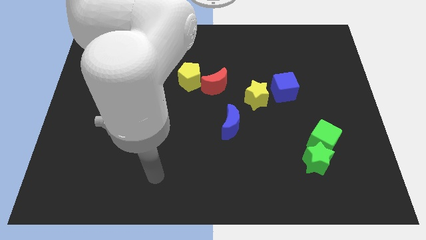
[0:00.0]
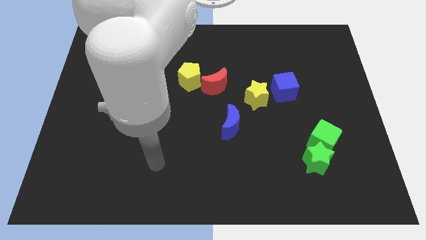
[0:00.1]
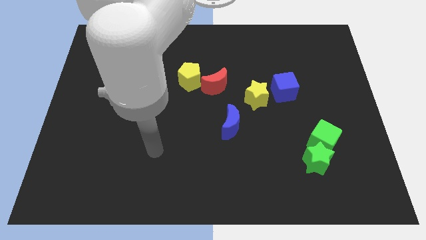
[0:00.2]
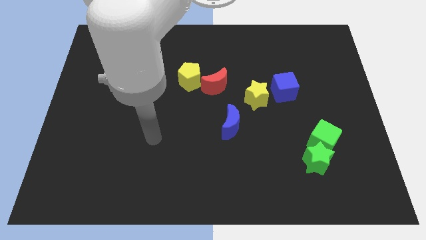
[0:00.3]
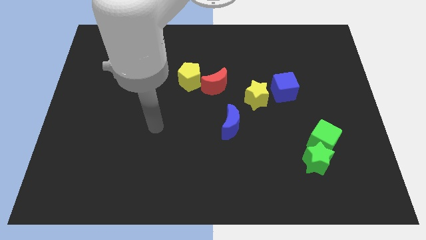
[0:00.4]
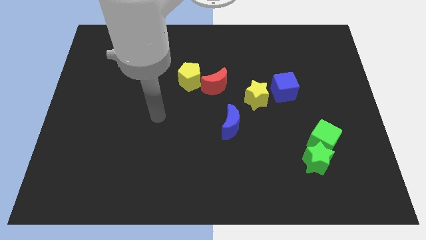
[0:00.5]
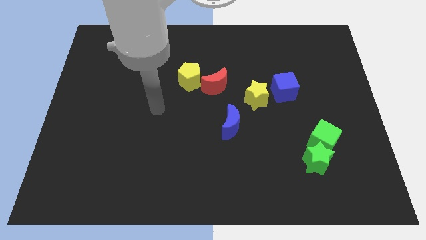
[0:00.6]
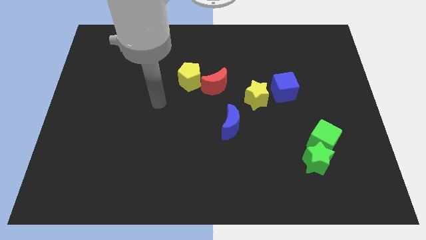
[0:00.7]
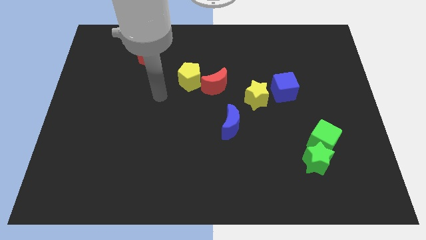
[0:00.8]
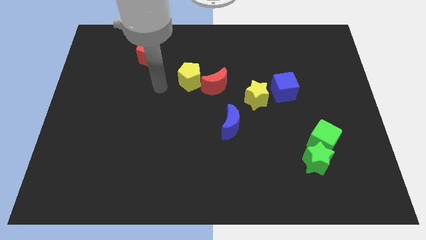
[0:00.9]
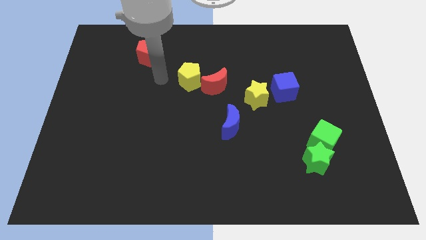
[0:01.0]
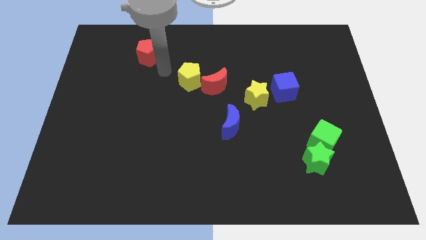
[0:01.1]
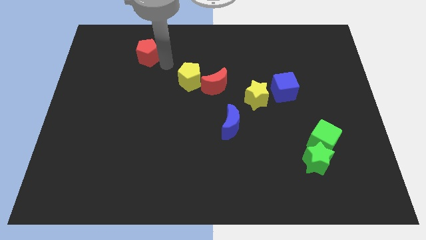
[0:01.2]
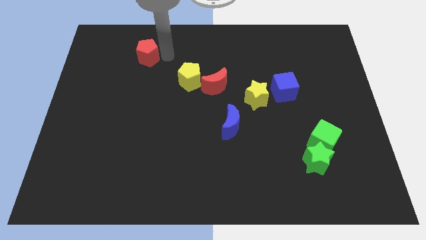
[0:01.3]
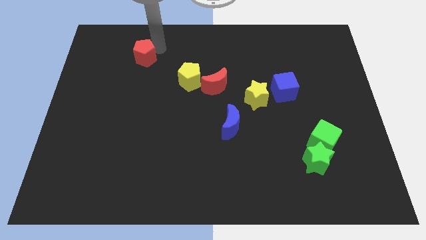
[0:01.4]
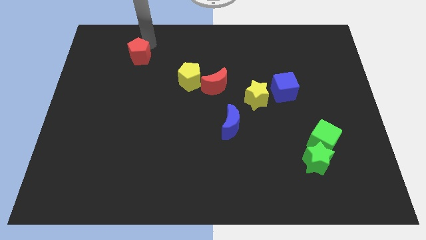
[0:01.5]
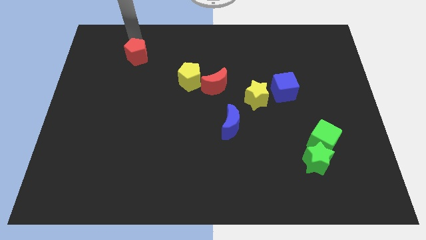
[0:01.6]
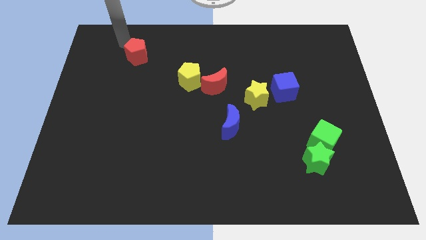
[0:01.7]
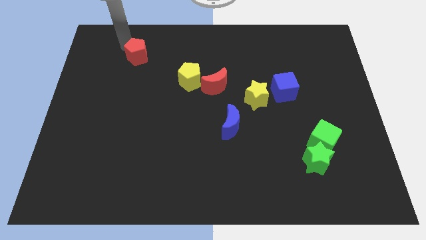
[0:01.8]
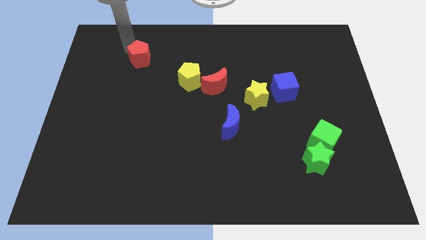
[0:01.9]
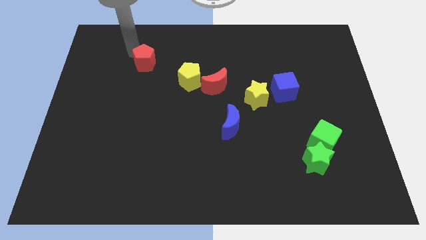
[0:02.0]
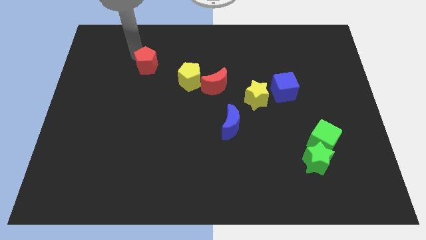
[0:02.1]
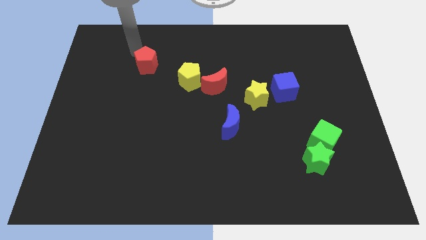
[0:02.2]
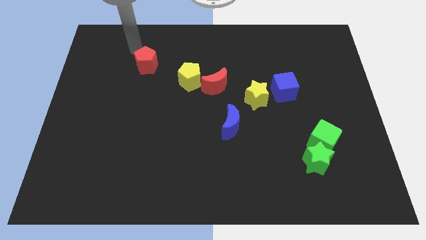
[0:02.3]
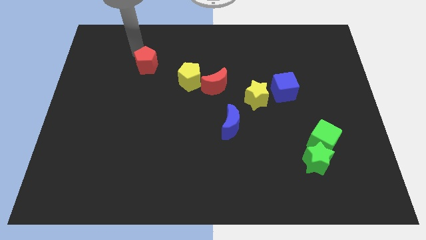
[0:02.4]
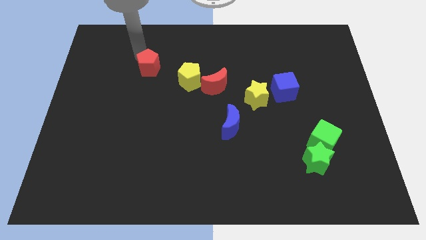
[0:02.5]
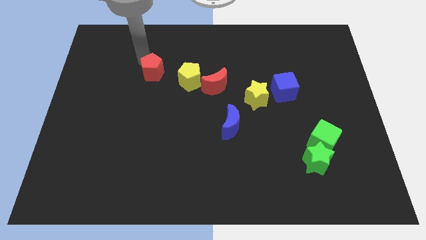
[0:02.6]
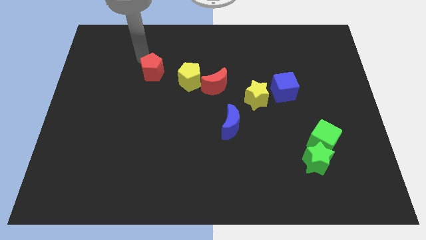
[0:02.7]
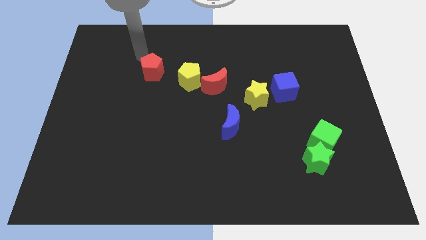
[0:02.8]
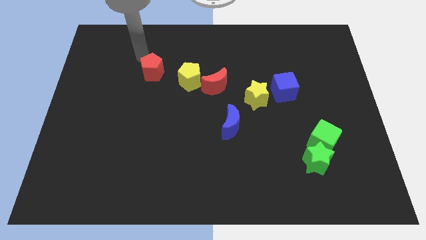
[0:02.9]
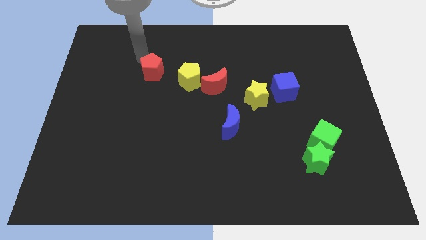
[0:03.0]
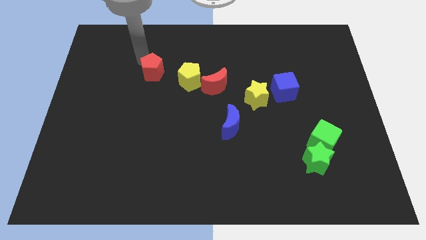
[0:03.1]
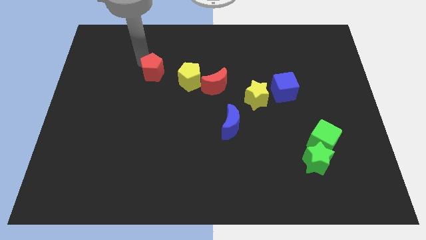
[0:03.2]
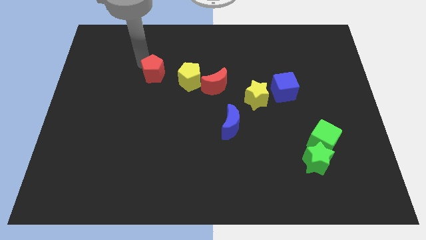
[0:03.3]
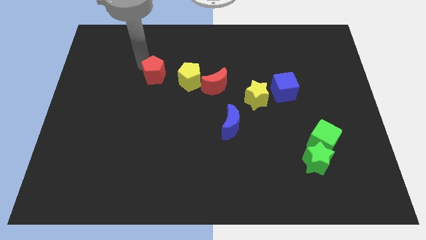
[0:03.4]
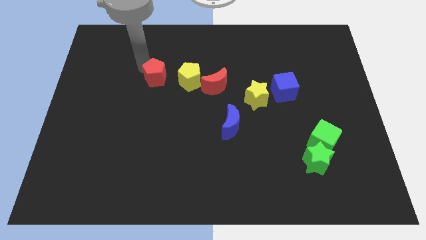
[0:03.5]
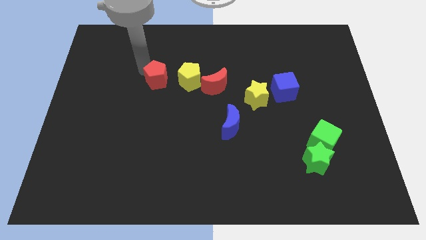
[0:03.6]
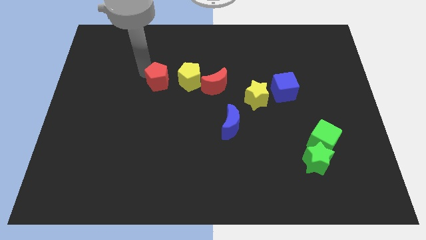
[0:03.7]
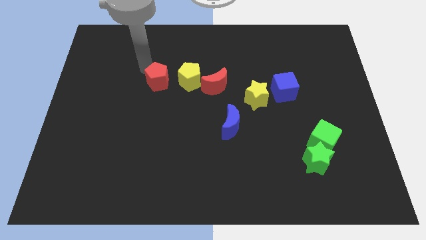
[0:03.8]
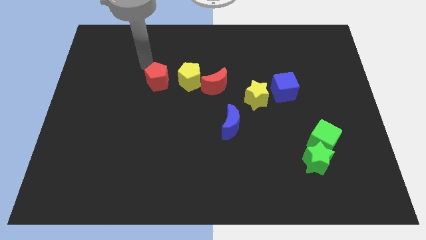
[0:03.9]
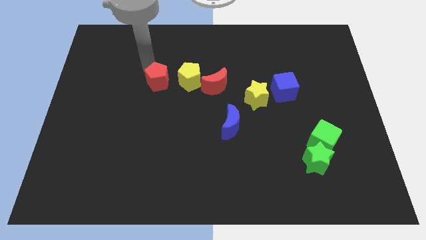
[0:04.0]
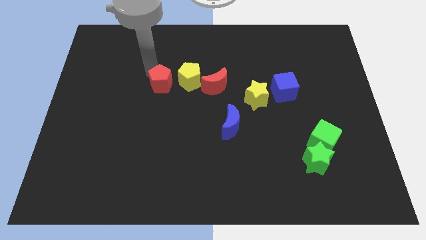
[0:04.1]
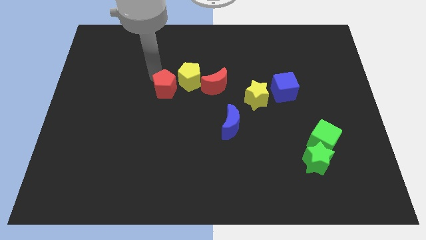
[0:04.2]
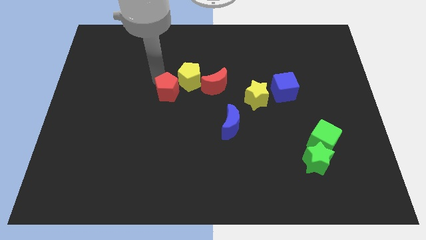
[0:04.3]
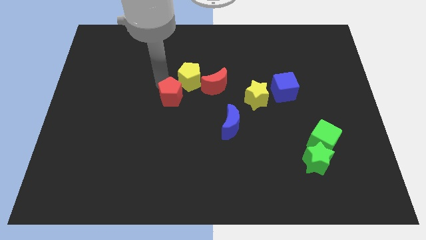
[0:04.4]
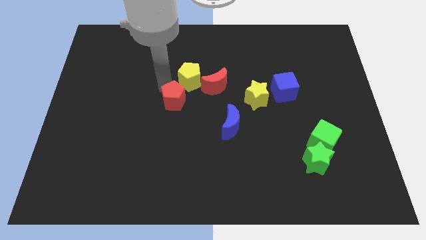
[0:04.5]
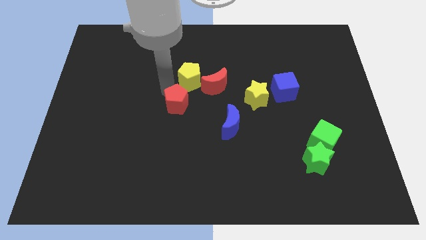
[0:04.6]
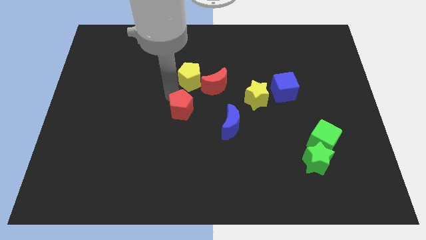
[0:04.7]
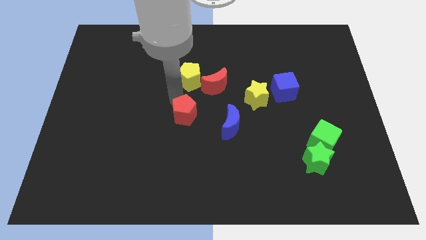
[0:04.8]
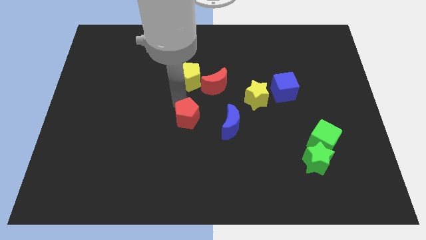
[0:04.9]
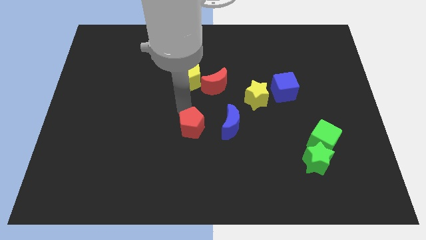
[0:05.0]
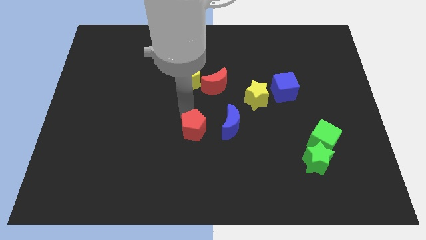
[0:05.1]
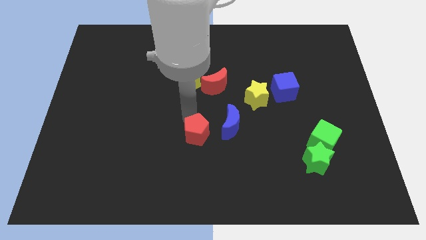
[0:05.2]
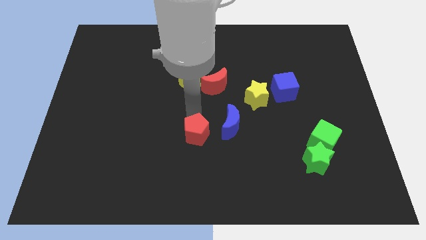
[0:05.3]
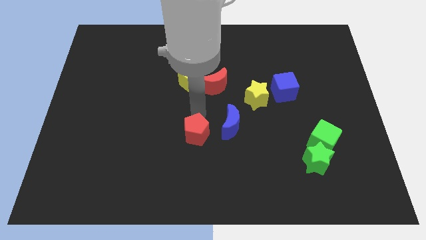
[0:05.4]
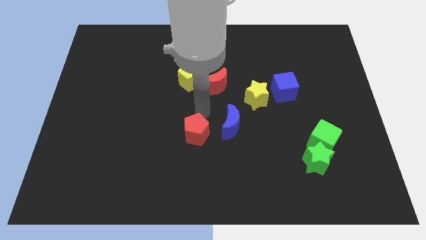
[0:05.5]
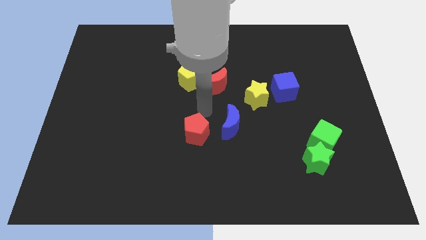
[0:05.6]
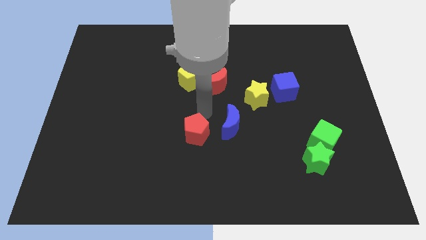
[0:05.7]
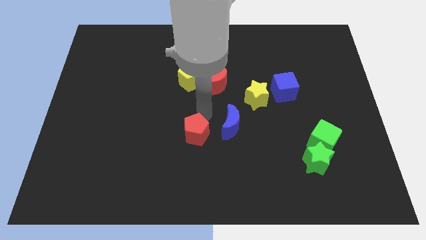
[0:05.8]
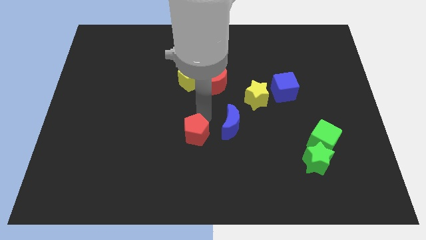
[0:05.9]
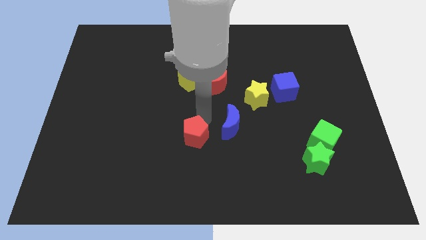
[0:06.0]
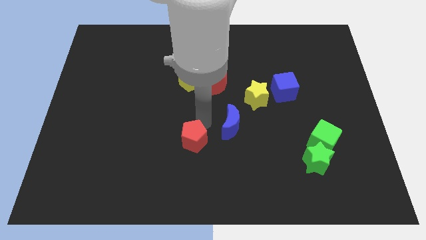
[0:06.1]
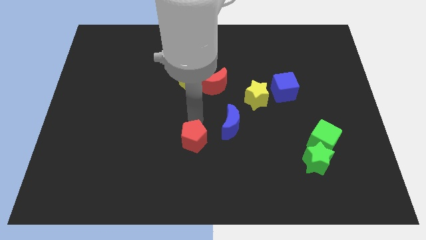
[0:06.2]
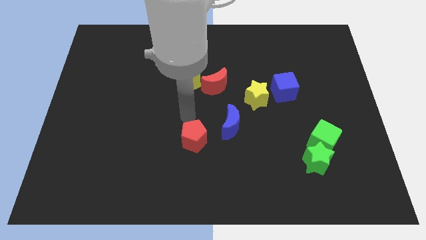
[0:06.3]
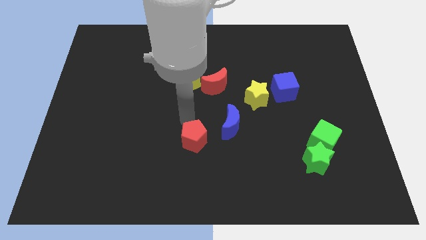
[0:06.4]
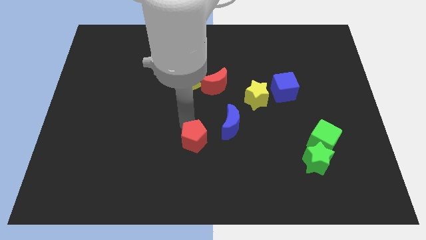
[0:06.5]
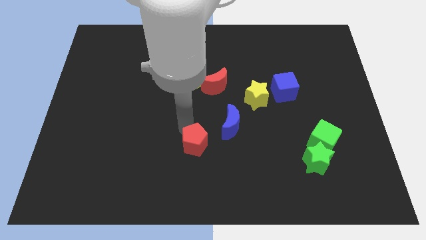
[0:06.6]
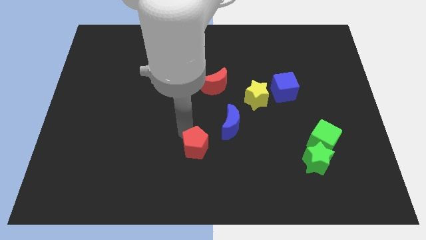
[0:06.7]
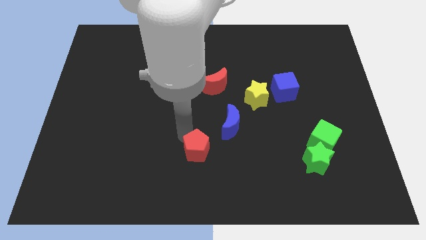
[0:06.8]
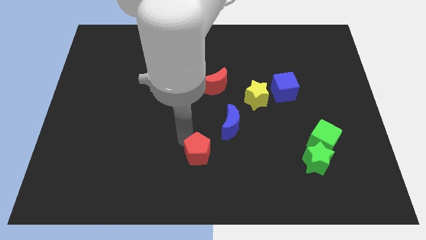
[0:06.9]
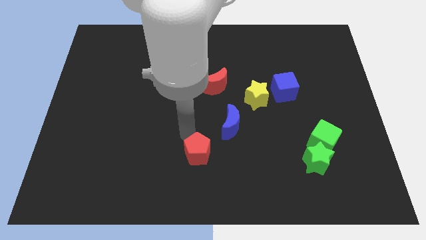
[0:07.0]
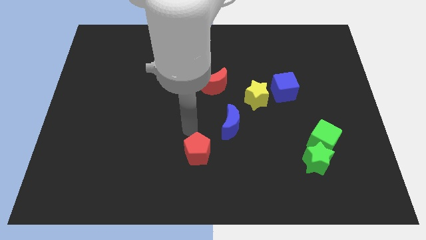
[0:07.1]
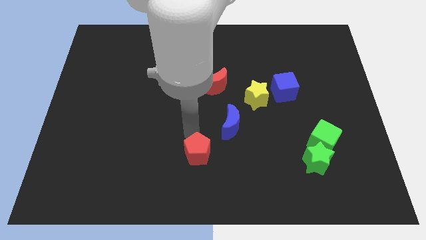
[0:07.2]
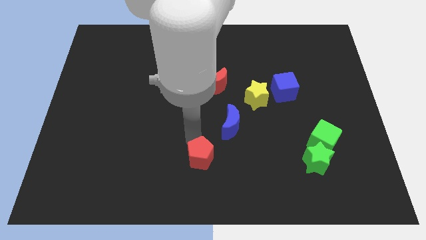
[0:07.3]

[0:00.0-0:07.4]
slide the red pentagon to the bottom
